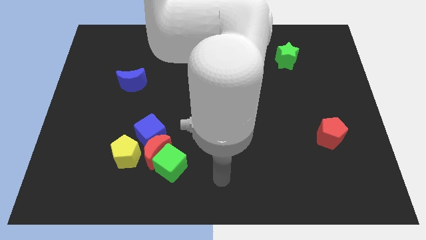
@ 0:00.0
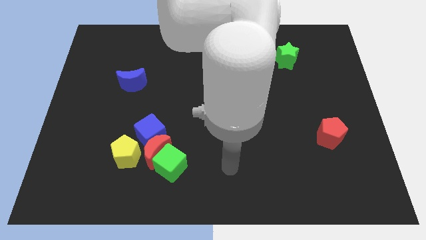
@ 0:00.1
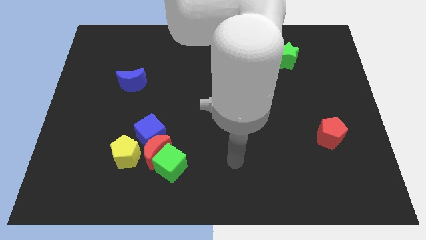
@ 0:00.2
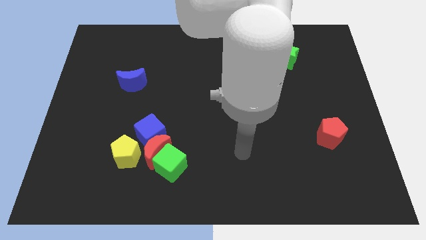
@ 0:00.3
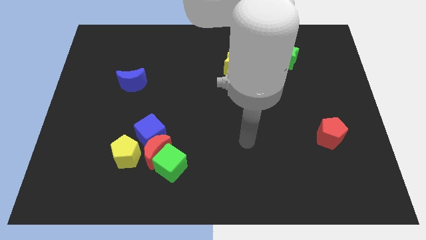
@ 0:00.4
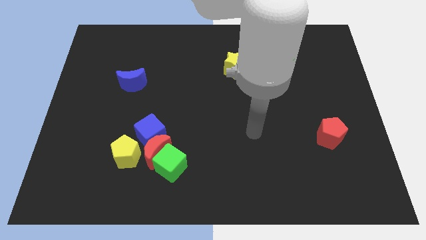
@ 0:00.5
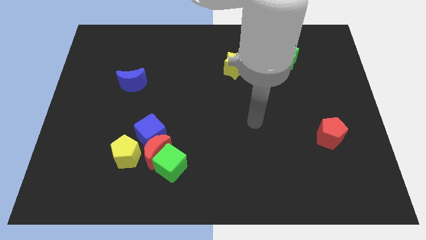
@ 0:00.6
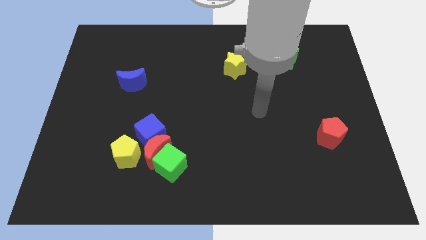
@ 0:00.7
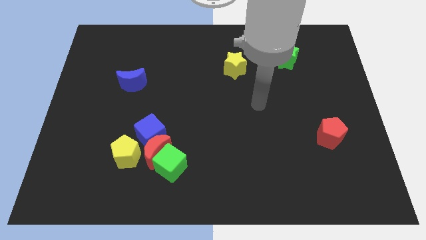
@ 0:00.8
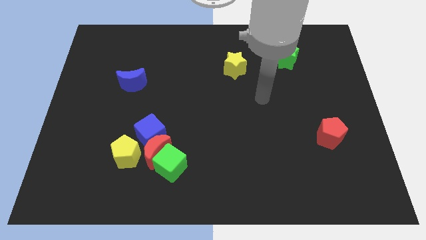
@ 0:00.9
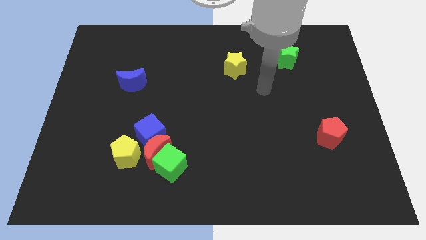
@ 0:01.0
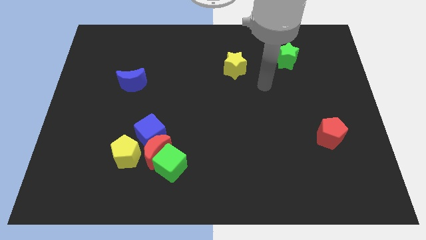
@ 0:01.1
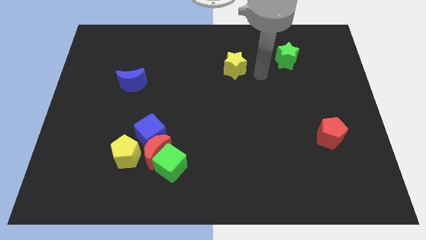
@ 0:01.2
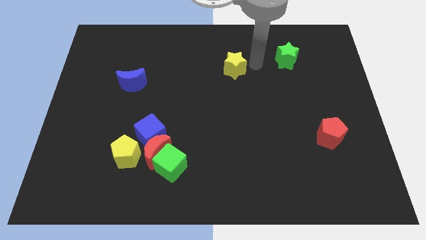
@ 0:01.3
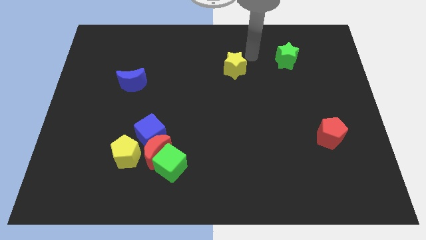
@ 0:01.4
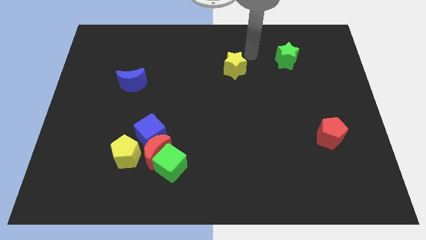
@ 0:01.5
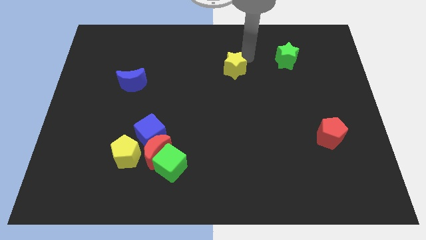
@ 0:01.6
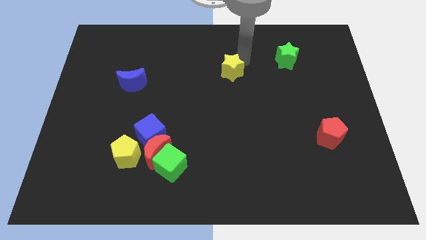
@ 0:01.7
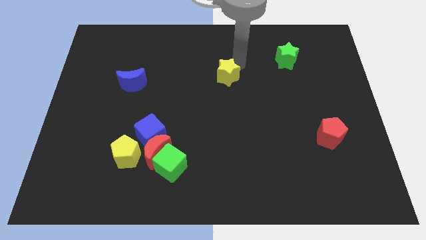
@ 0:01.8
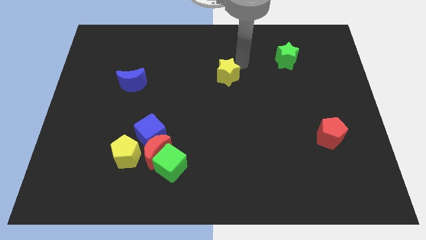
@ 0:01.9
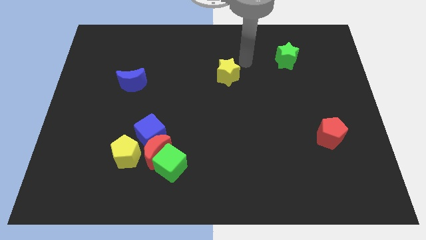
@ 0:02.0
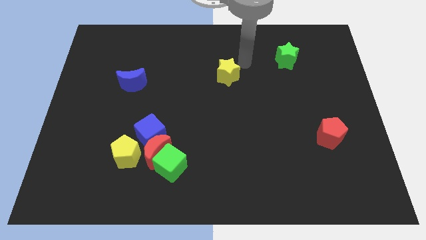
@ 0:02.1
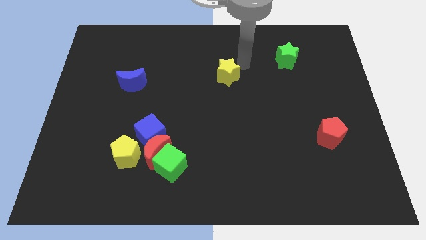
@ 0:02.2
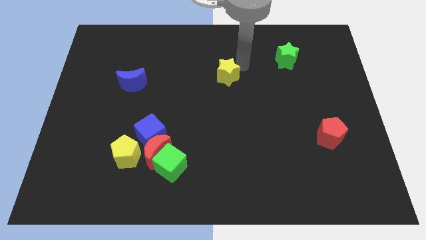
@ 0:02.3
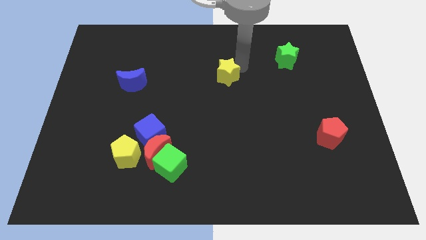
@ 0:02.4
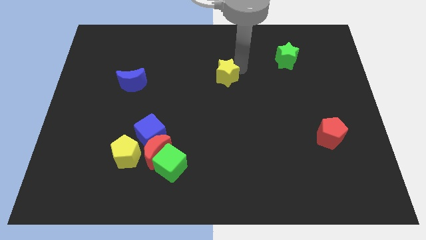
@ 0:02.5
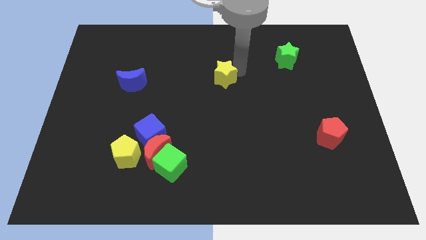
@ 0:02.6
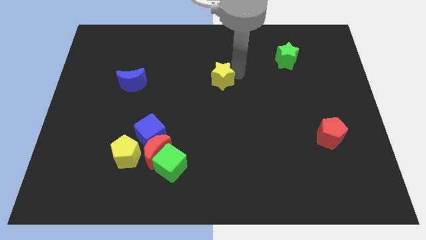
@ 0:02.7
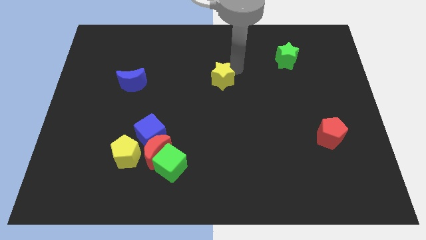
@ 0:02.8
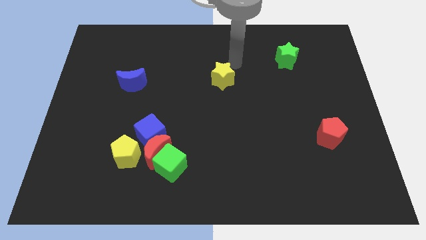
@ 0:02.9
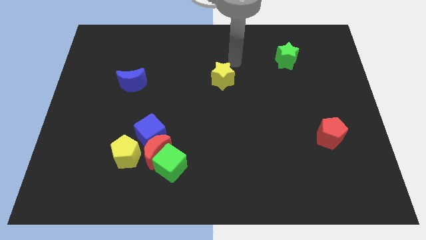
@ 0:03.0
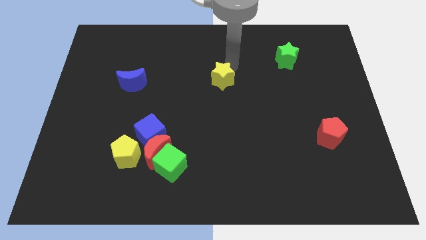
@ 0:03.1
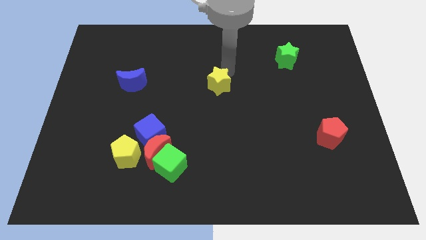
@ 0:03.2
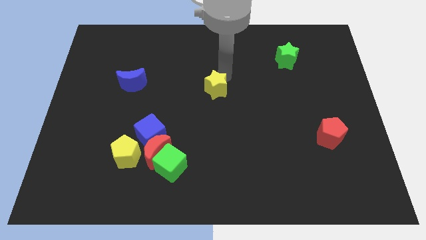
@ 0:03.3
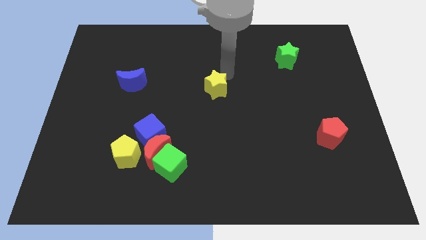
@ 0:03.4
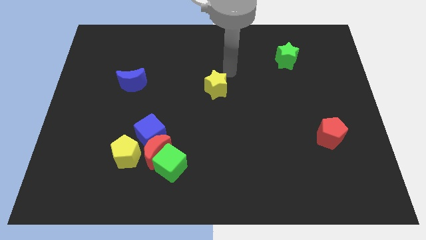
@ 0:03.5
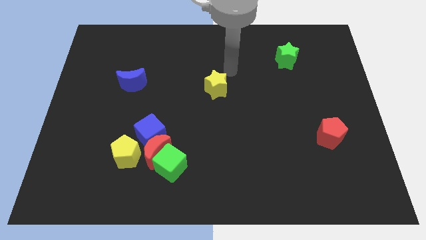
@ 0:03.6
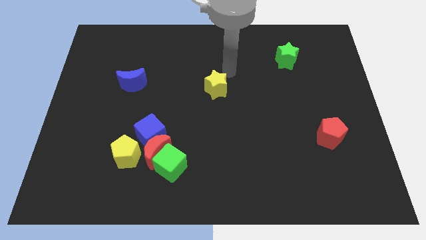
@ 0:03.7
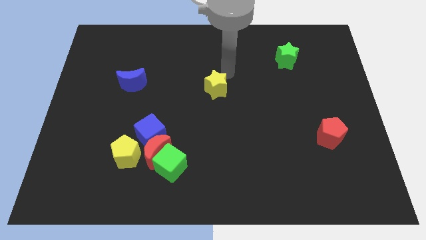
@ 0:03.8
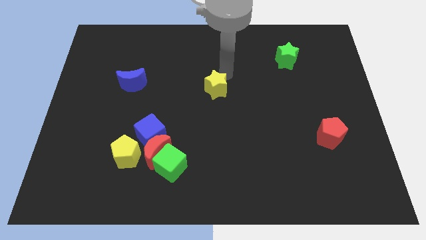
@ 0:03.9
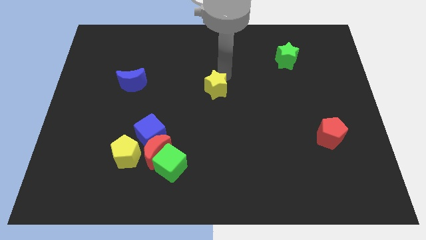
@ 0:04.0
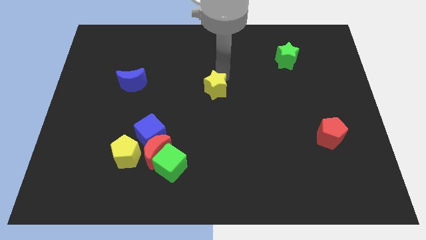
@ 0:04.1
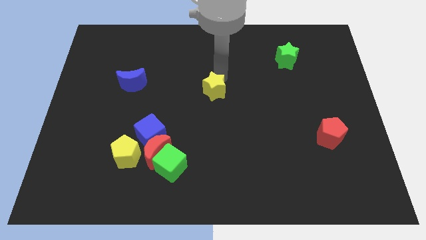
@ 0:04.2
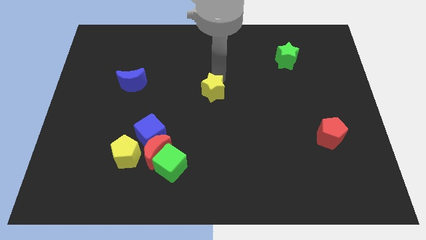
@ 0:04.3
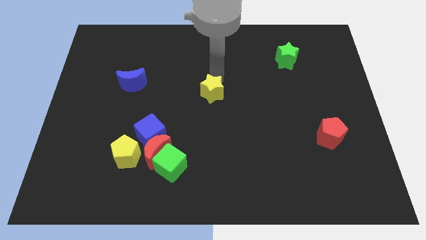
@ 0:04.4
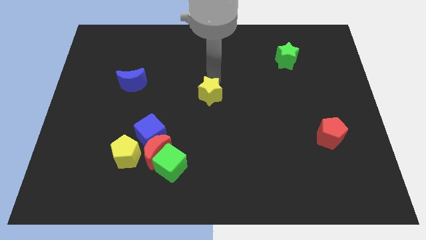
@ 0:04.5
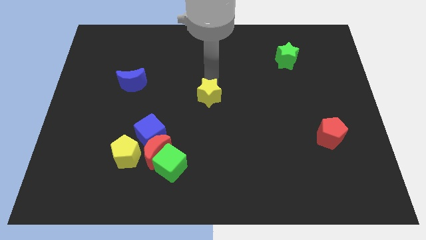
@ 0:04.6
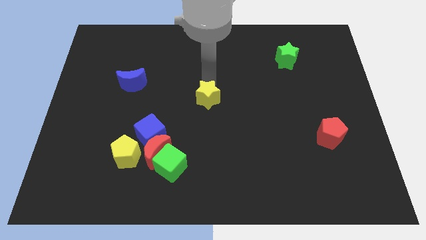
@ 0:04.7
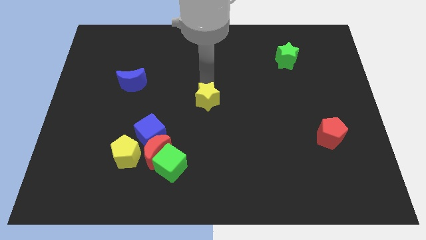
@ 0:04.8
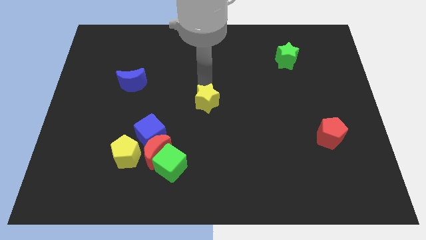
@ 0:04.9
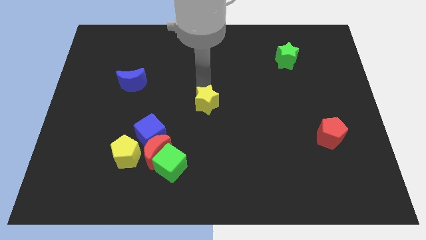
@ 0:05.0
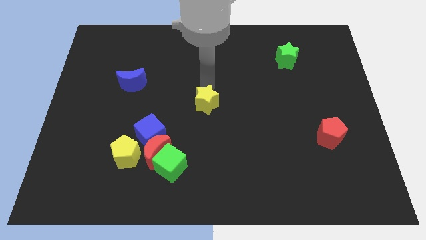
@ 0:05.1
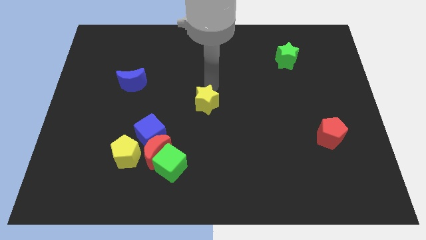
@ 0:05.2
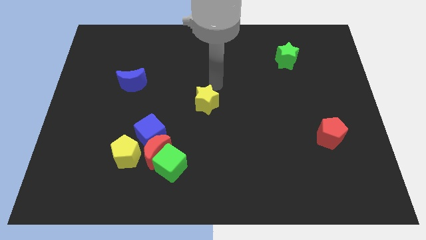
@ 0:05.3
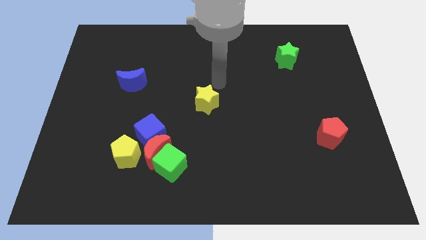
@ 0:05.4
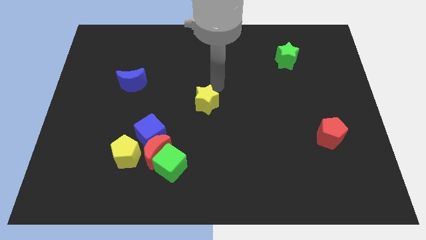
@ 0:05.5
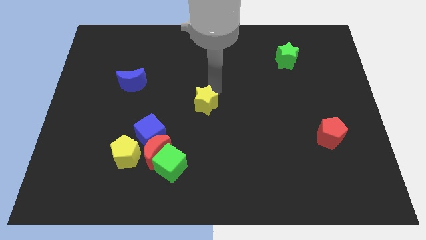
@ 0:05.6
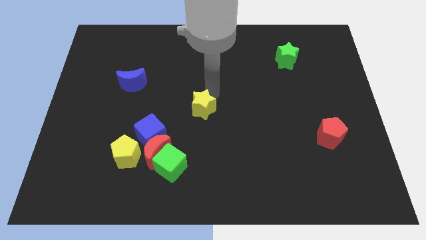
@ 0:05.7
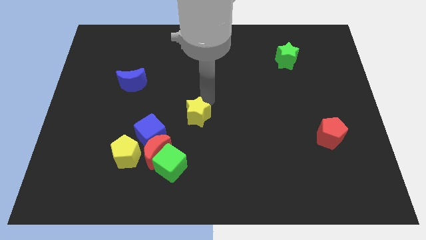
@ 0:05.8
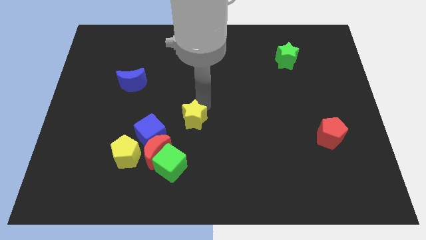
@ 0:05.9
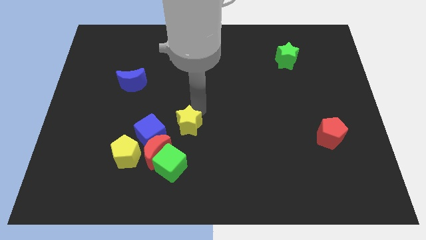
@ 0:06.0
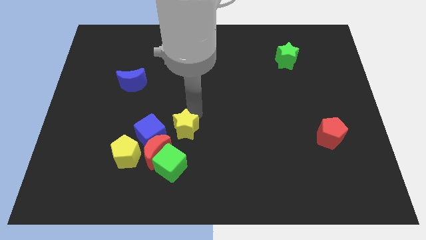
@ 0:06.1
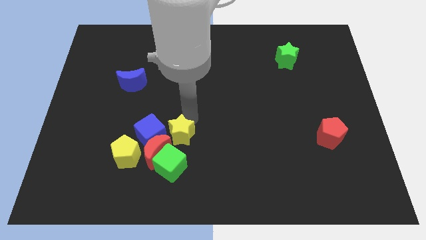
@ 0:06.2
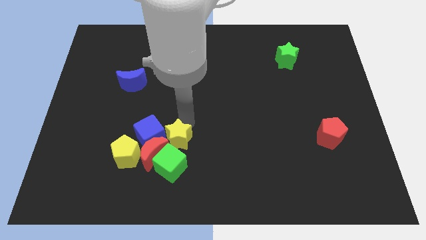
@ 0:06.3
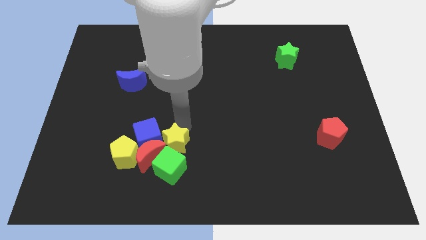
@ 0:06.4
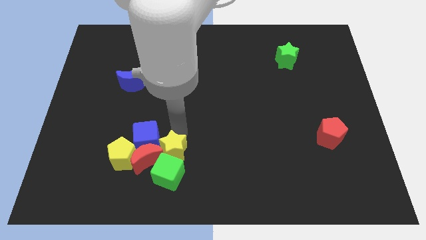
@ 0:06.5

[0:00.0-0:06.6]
slide the yellow star next to the green cube

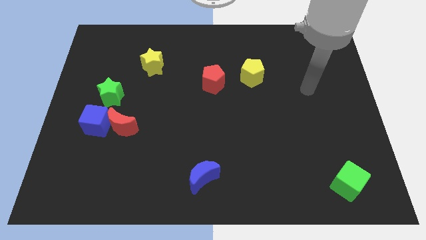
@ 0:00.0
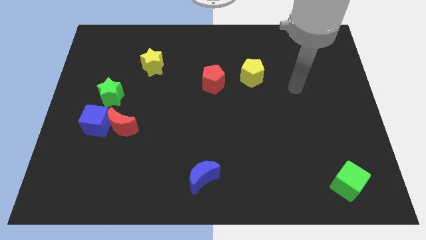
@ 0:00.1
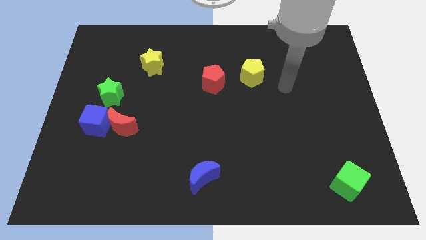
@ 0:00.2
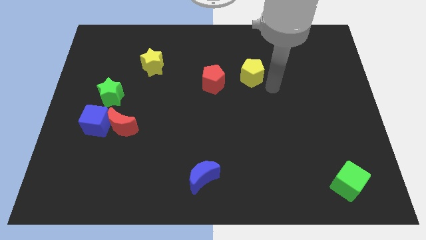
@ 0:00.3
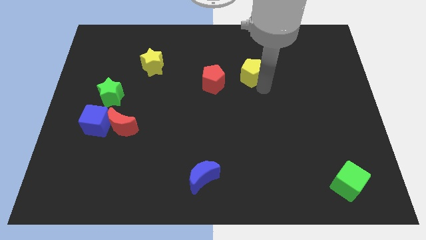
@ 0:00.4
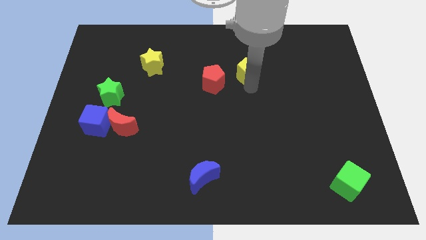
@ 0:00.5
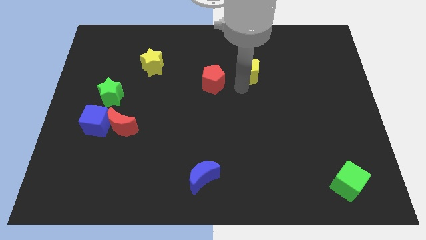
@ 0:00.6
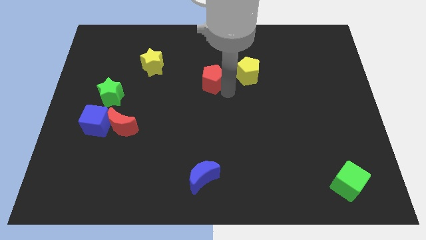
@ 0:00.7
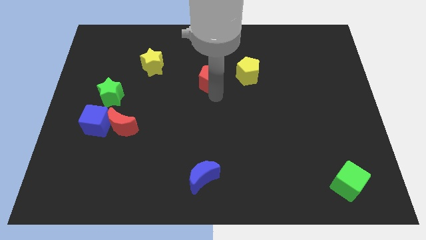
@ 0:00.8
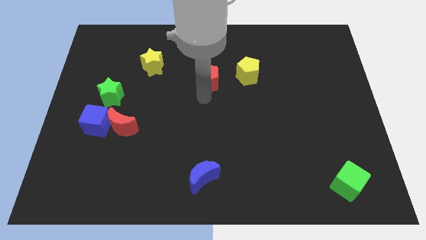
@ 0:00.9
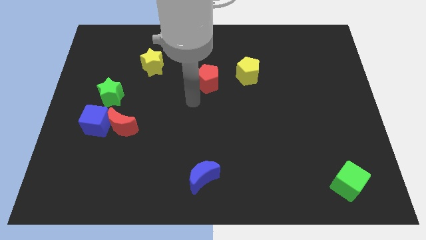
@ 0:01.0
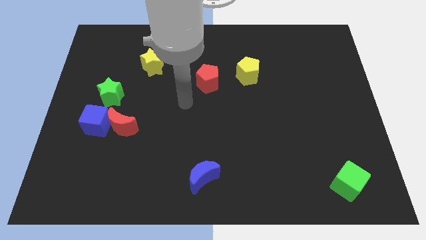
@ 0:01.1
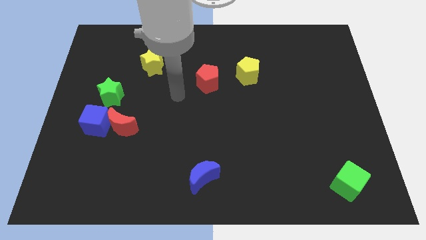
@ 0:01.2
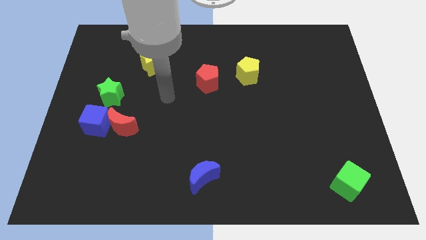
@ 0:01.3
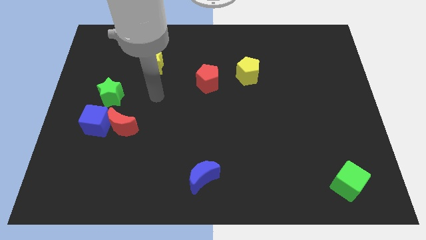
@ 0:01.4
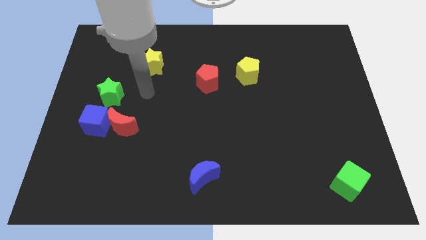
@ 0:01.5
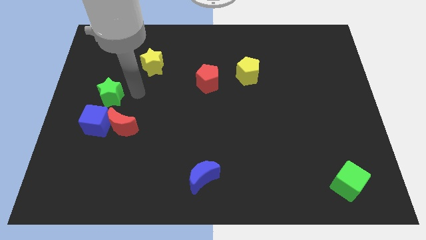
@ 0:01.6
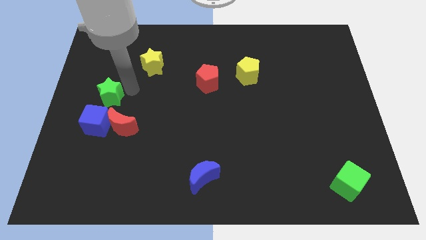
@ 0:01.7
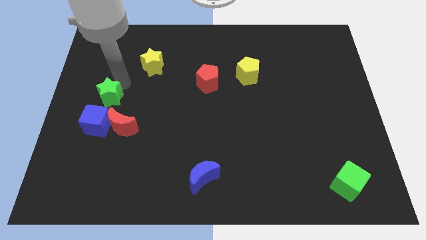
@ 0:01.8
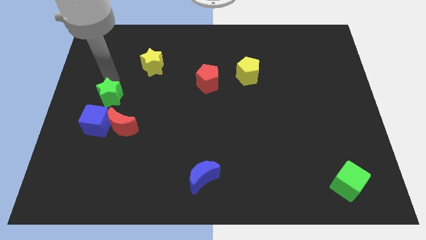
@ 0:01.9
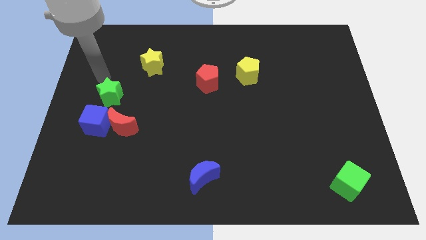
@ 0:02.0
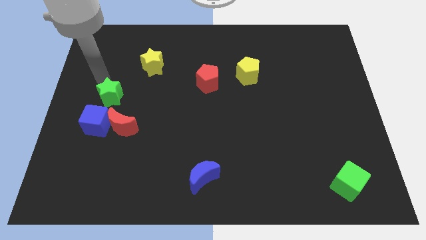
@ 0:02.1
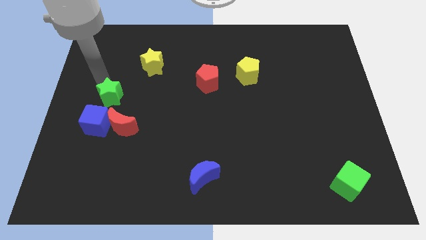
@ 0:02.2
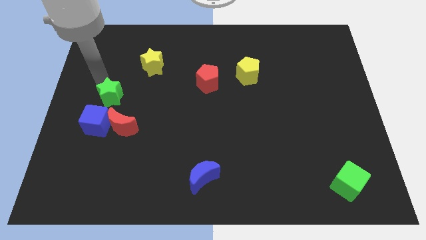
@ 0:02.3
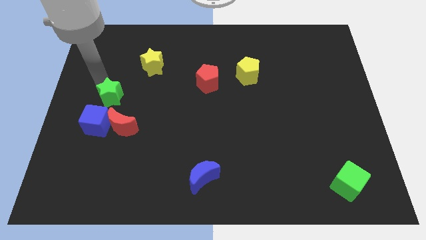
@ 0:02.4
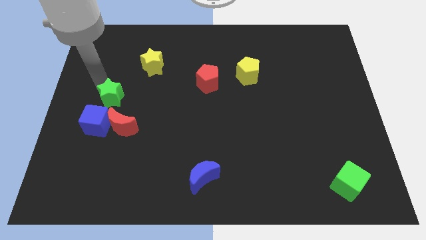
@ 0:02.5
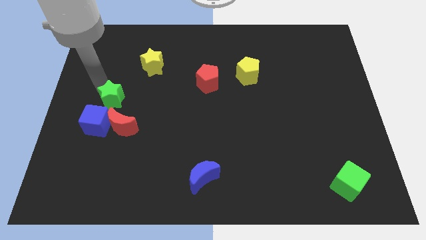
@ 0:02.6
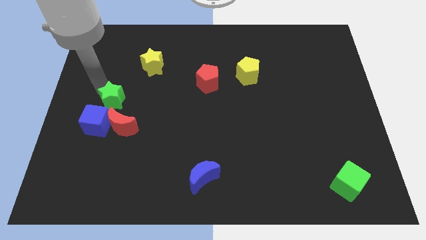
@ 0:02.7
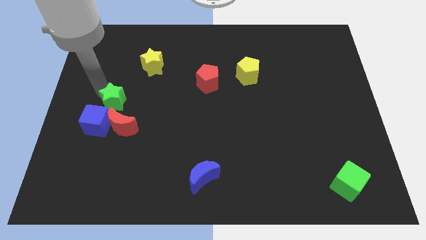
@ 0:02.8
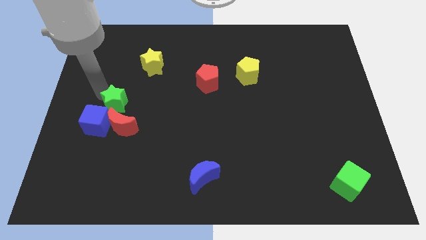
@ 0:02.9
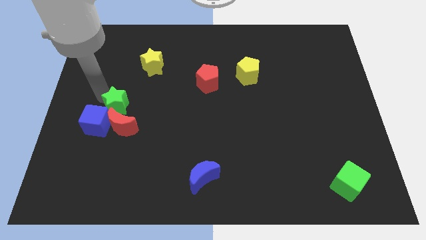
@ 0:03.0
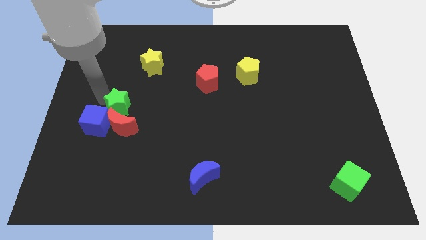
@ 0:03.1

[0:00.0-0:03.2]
push the green star towards the red moon
